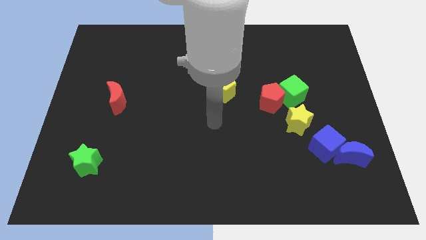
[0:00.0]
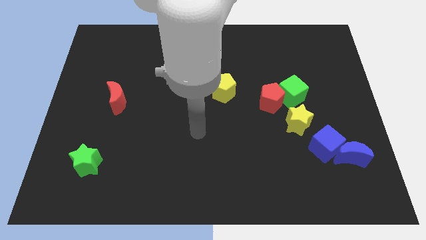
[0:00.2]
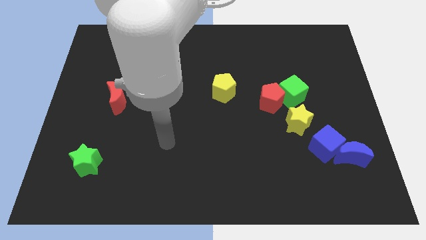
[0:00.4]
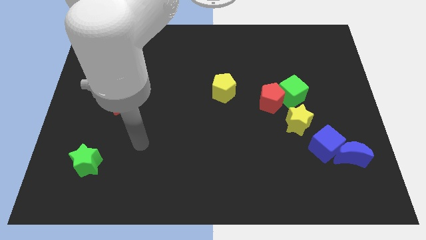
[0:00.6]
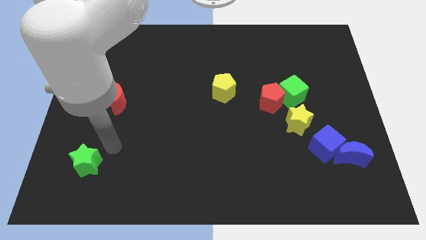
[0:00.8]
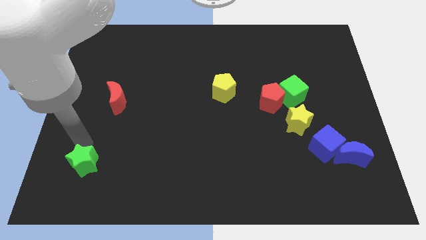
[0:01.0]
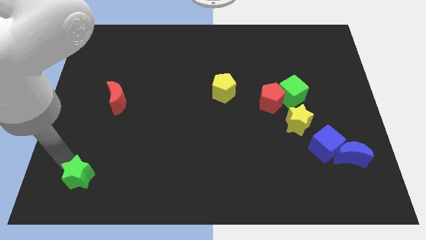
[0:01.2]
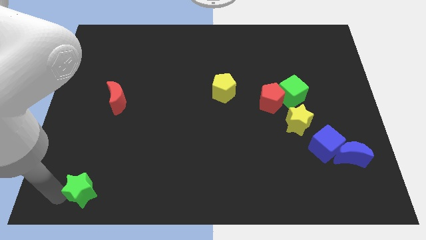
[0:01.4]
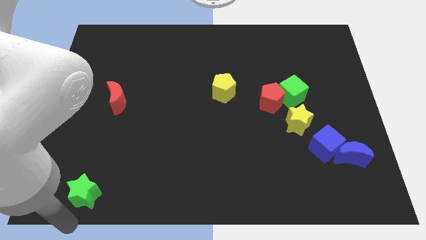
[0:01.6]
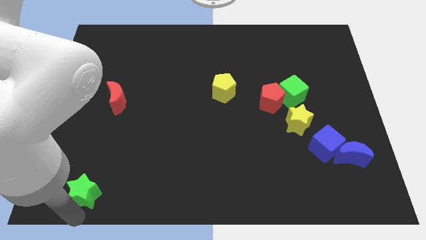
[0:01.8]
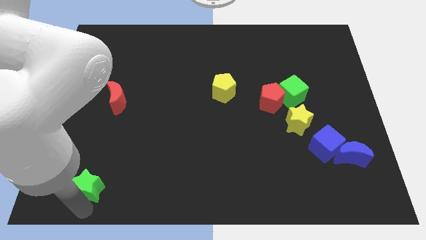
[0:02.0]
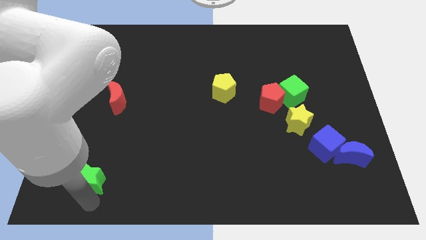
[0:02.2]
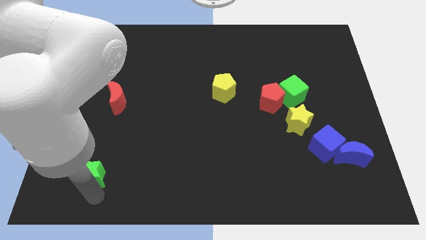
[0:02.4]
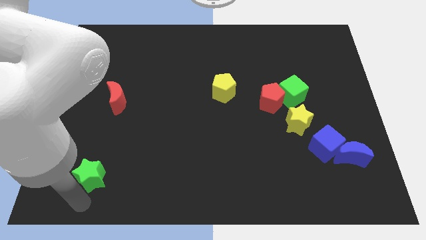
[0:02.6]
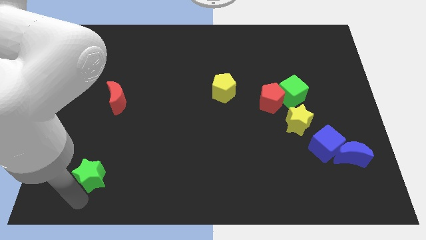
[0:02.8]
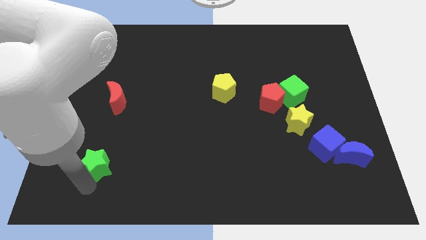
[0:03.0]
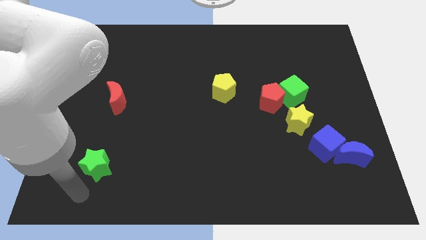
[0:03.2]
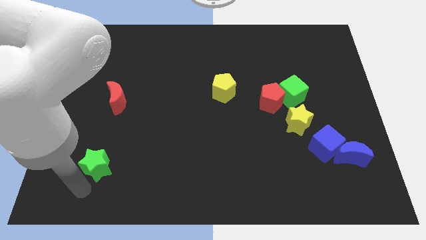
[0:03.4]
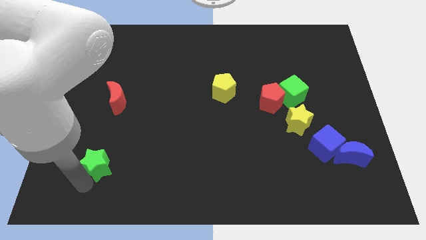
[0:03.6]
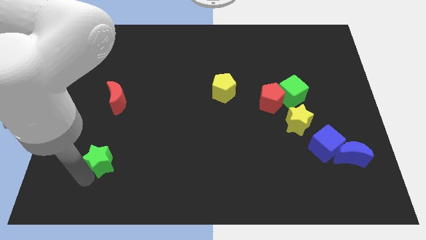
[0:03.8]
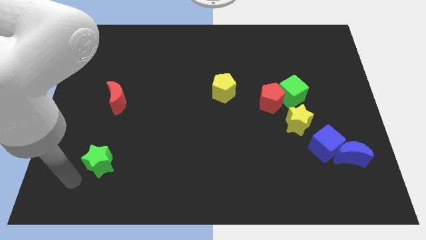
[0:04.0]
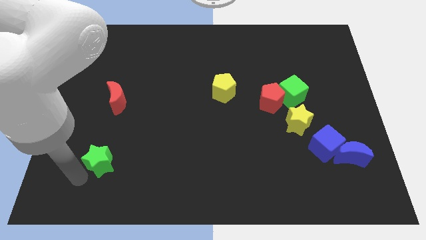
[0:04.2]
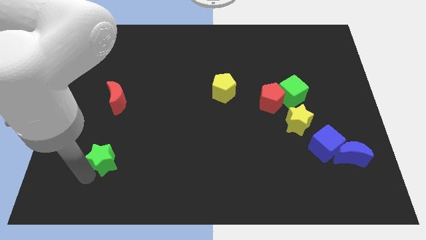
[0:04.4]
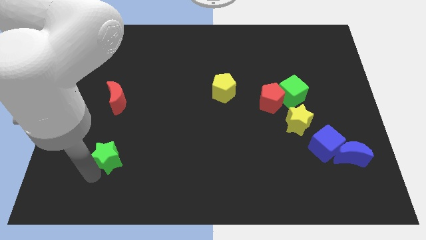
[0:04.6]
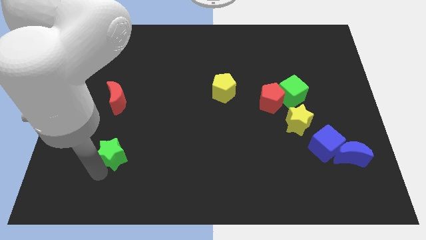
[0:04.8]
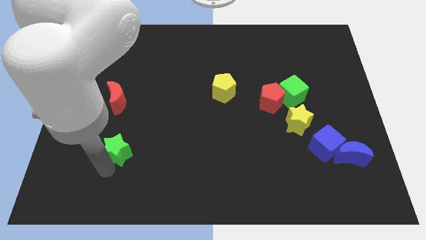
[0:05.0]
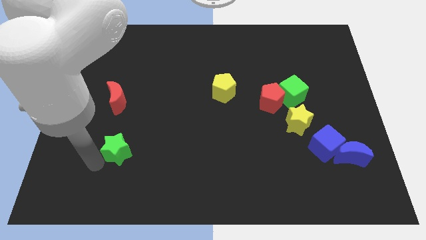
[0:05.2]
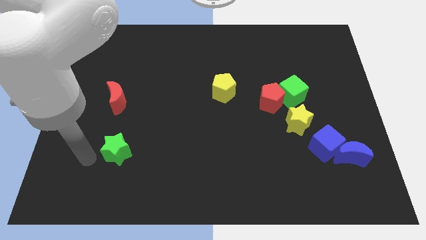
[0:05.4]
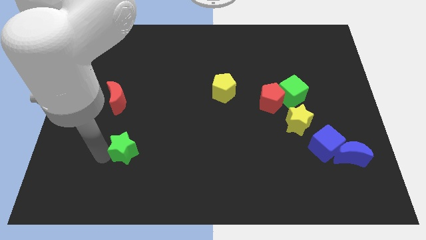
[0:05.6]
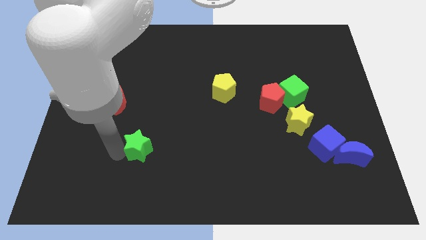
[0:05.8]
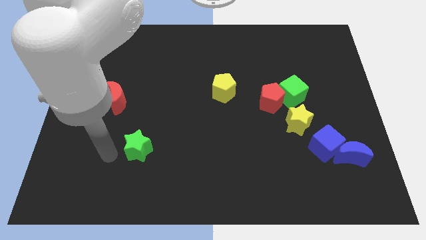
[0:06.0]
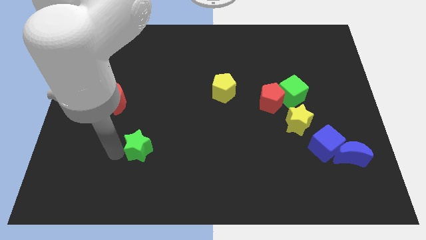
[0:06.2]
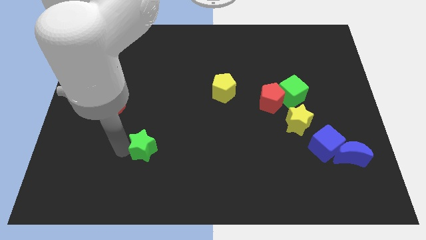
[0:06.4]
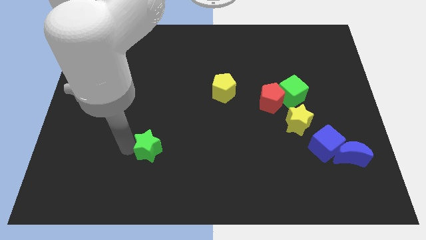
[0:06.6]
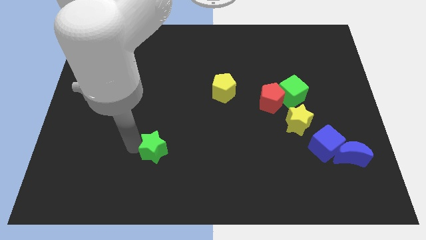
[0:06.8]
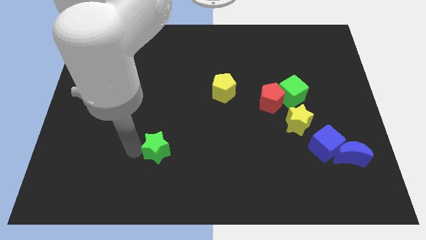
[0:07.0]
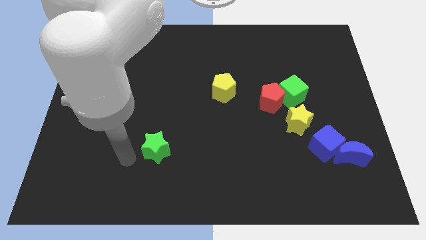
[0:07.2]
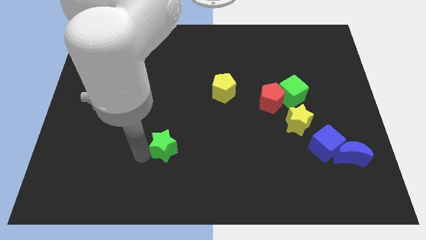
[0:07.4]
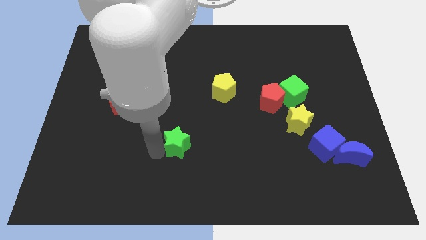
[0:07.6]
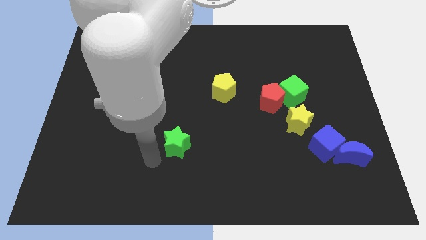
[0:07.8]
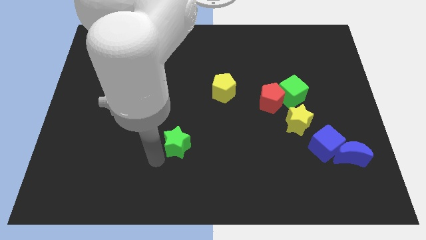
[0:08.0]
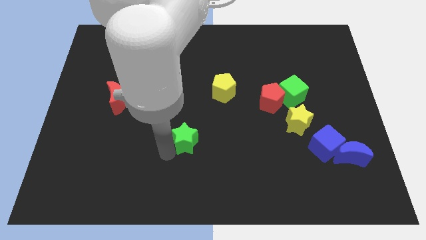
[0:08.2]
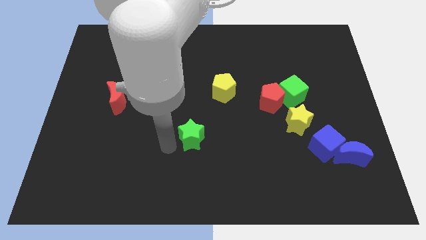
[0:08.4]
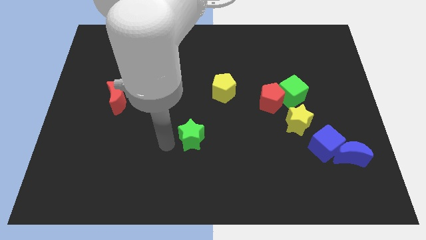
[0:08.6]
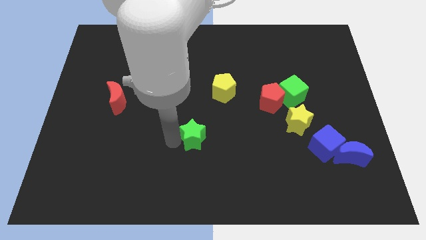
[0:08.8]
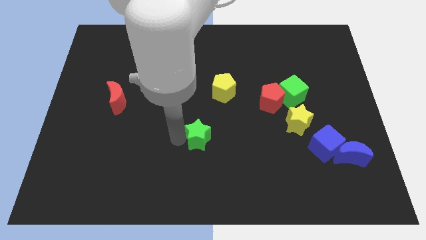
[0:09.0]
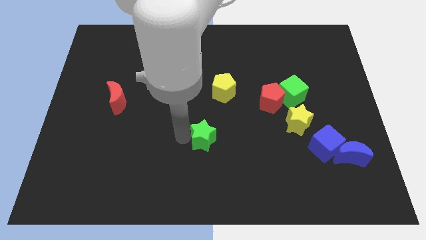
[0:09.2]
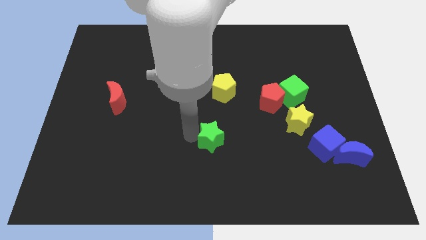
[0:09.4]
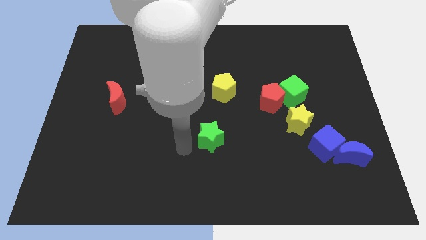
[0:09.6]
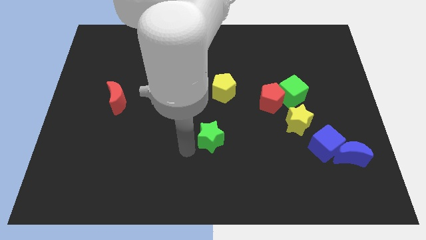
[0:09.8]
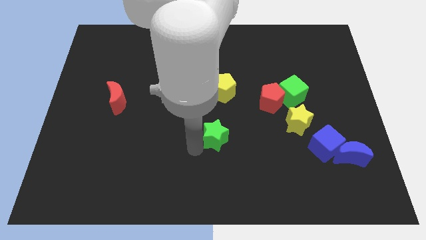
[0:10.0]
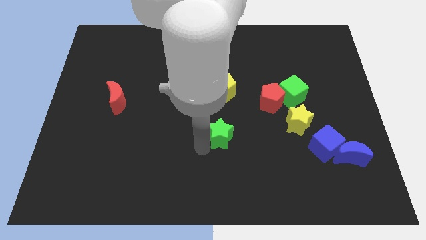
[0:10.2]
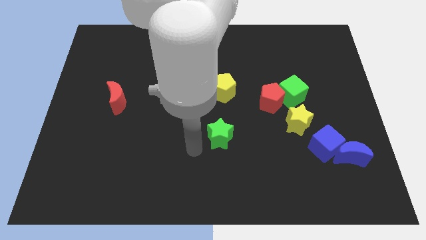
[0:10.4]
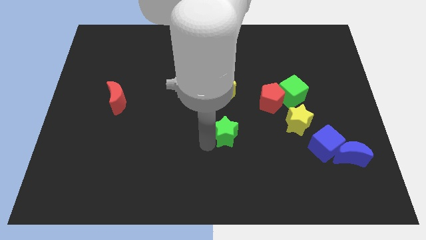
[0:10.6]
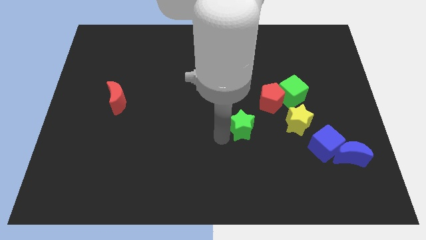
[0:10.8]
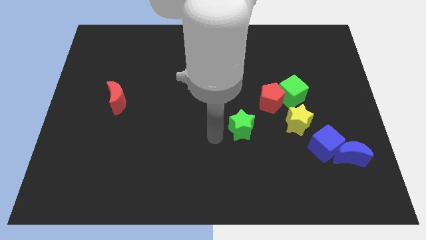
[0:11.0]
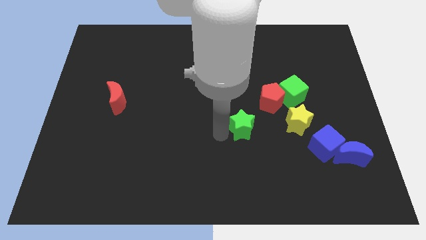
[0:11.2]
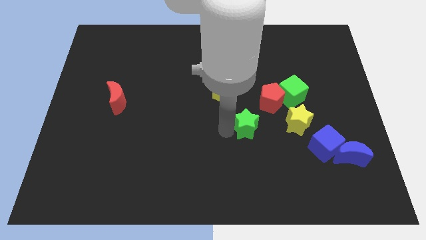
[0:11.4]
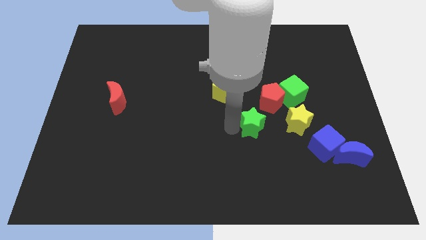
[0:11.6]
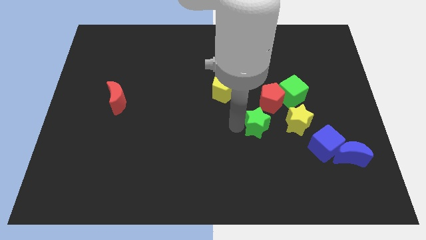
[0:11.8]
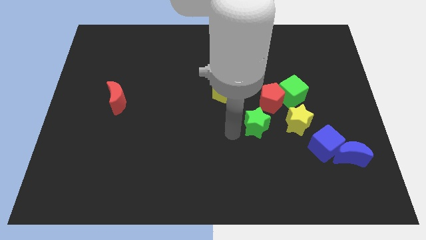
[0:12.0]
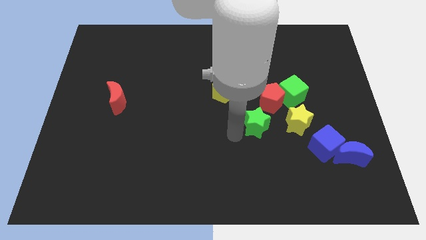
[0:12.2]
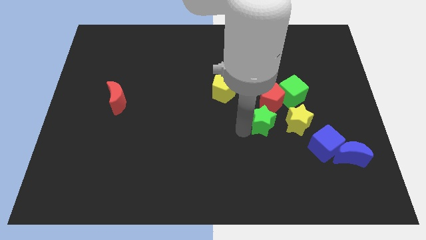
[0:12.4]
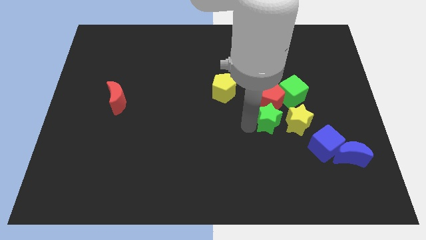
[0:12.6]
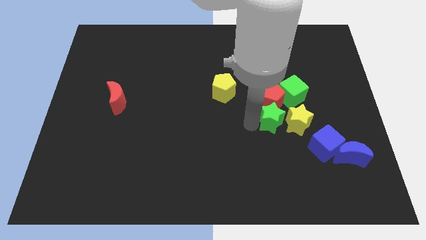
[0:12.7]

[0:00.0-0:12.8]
push the green star close to the yellow star
